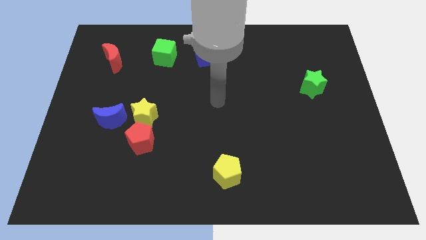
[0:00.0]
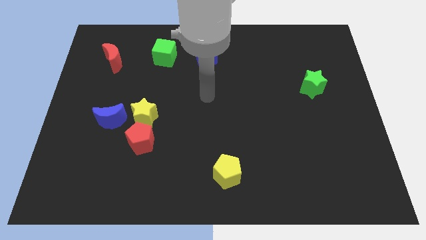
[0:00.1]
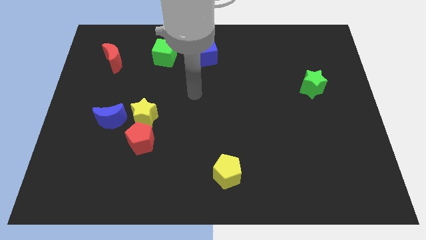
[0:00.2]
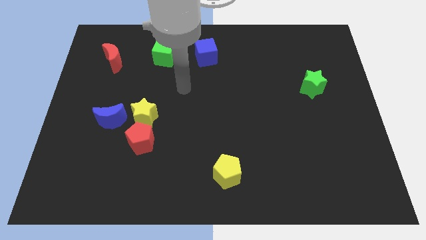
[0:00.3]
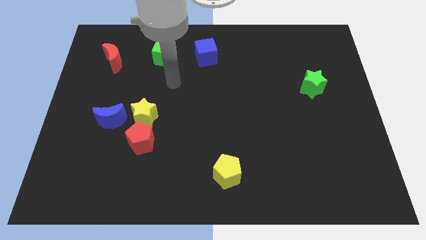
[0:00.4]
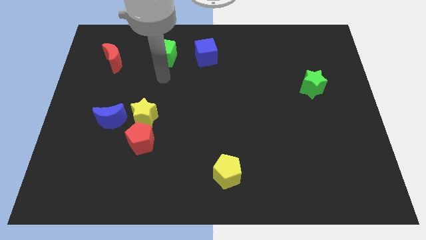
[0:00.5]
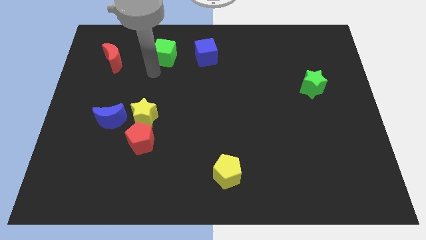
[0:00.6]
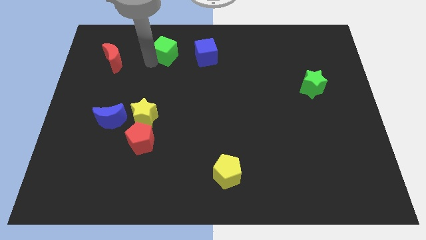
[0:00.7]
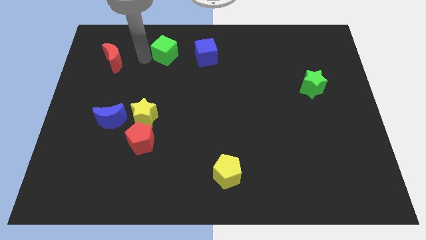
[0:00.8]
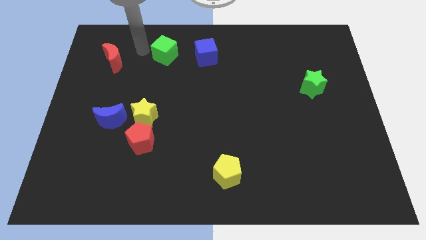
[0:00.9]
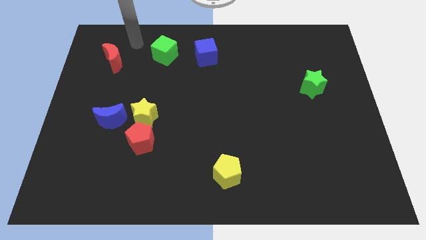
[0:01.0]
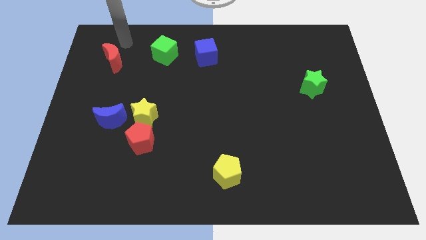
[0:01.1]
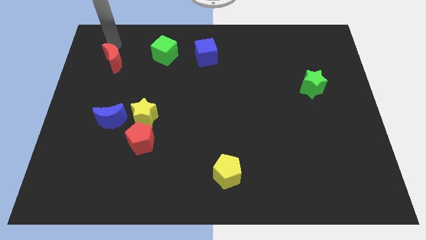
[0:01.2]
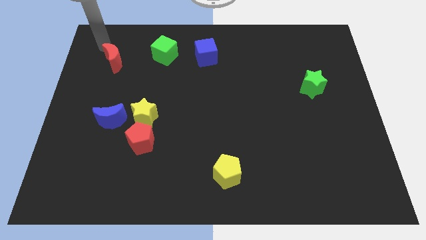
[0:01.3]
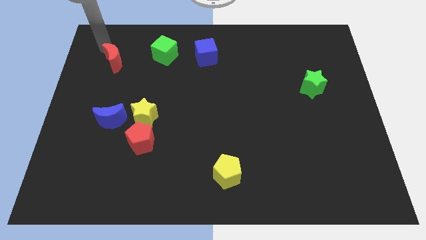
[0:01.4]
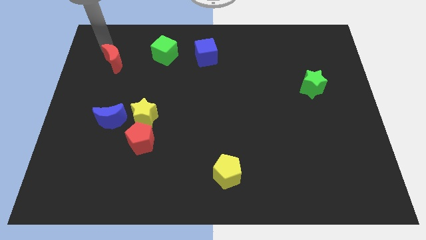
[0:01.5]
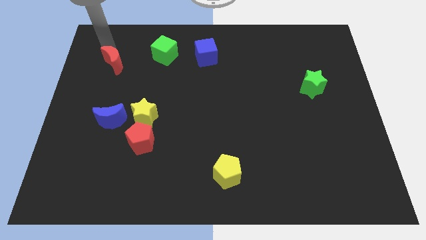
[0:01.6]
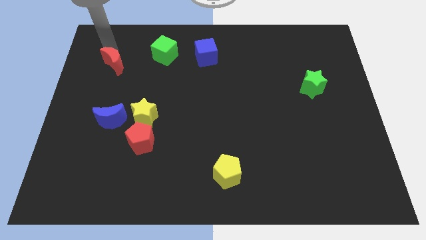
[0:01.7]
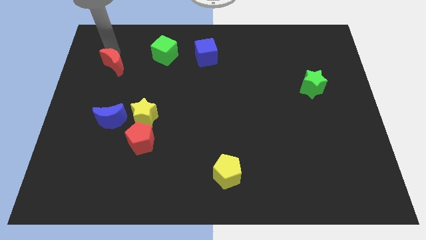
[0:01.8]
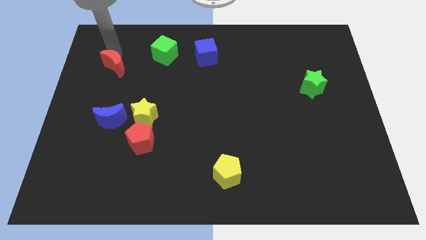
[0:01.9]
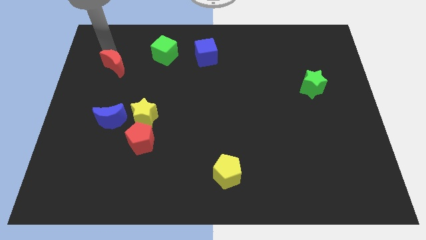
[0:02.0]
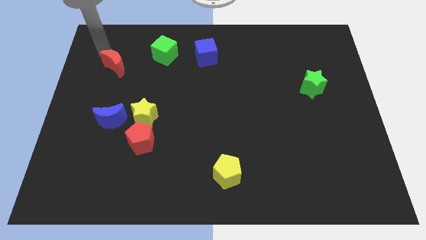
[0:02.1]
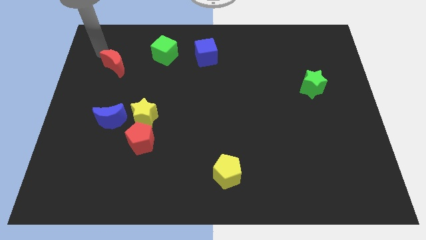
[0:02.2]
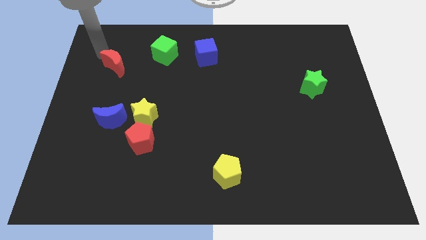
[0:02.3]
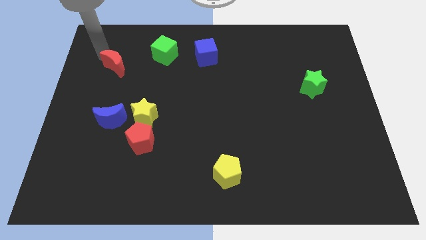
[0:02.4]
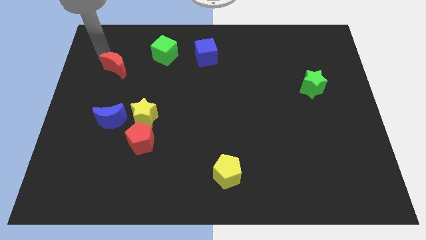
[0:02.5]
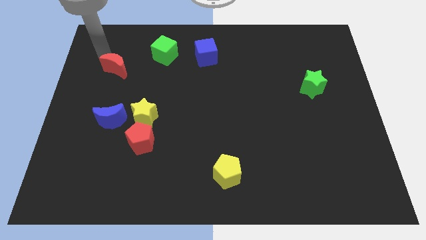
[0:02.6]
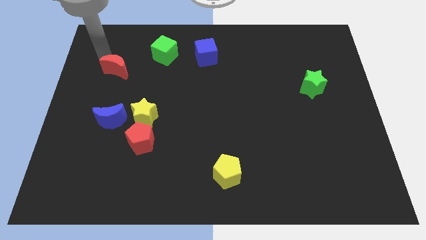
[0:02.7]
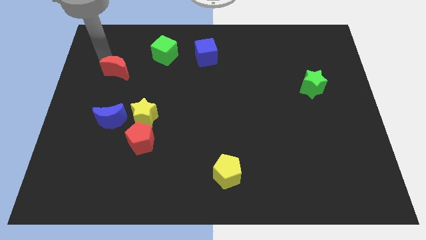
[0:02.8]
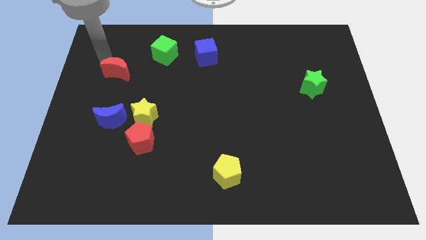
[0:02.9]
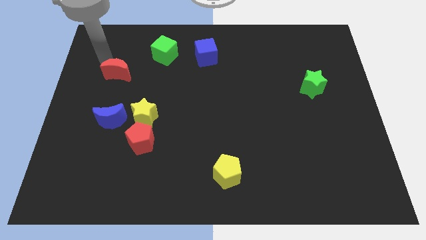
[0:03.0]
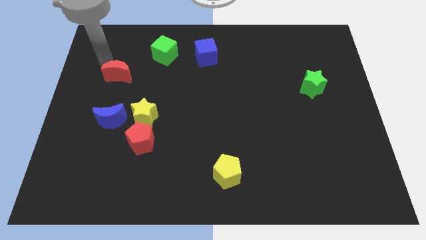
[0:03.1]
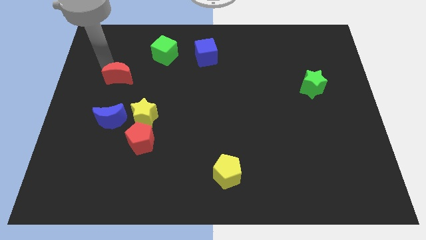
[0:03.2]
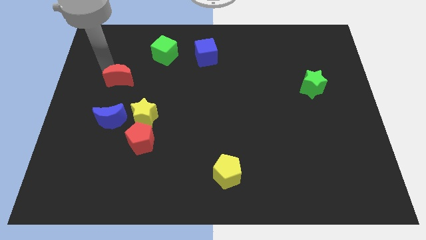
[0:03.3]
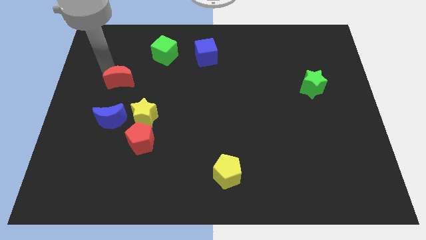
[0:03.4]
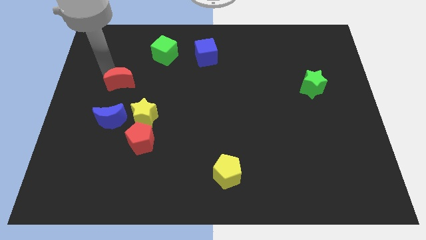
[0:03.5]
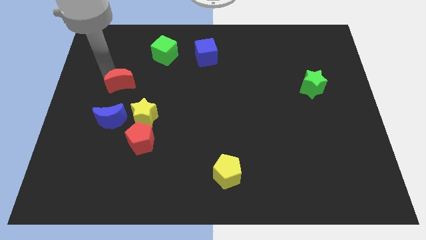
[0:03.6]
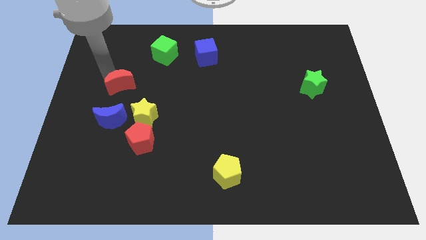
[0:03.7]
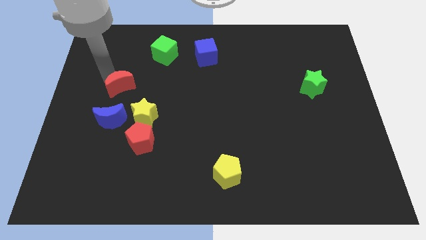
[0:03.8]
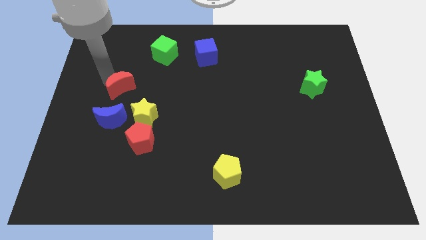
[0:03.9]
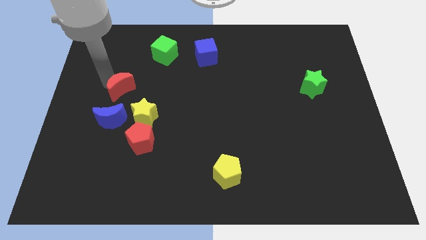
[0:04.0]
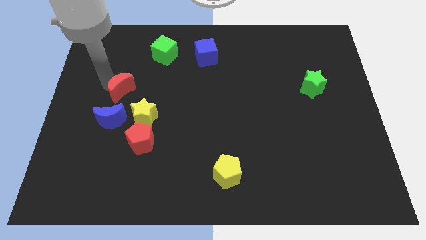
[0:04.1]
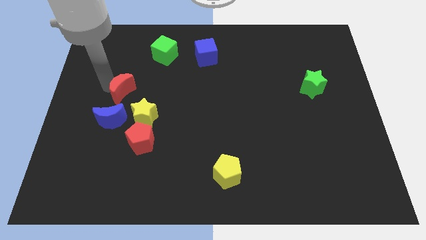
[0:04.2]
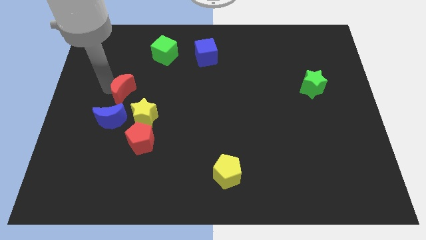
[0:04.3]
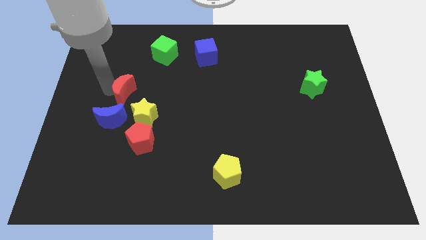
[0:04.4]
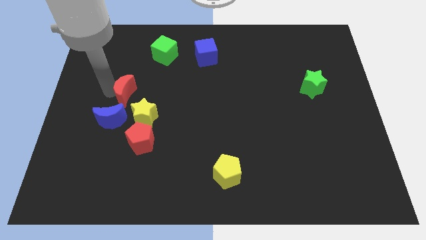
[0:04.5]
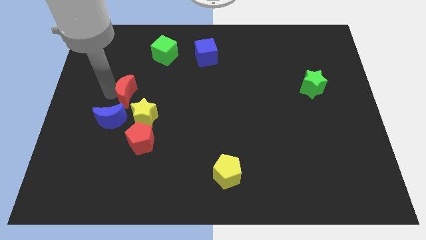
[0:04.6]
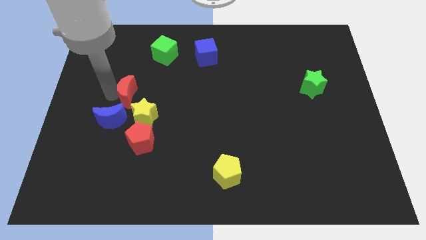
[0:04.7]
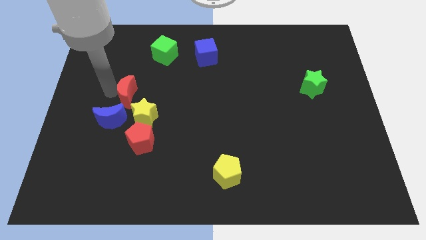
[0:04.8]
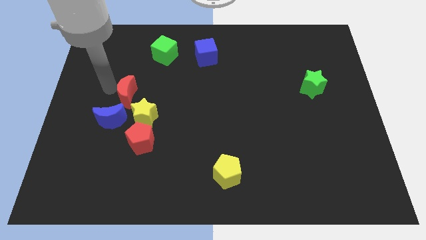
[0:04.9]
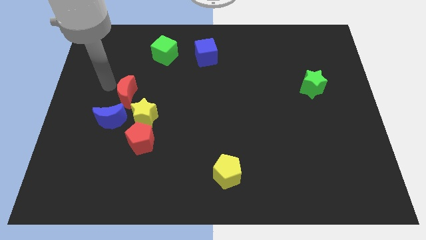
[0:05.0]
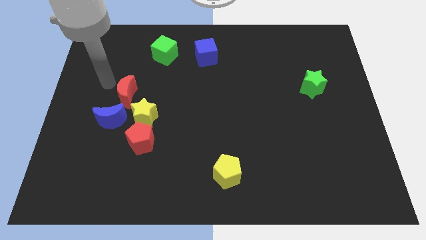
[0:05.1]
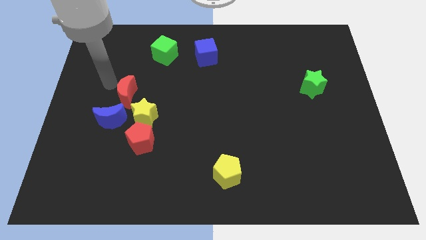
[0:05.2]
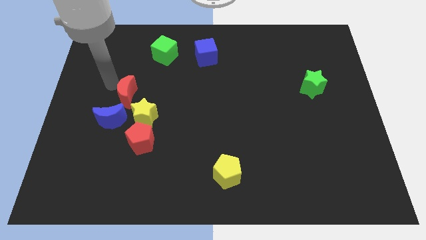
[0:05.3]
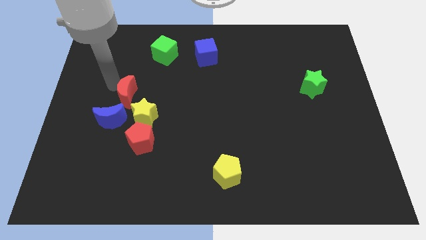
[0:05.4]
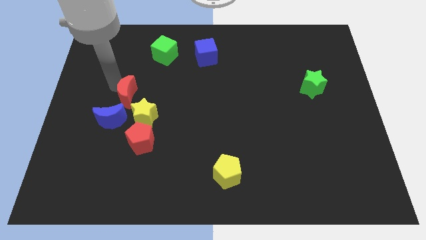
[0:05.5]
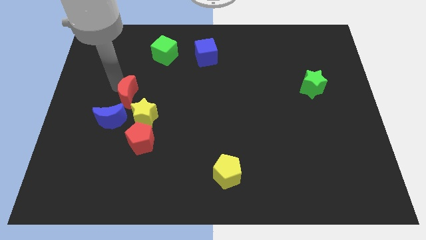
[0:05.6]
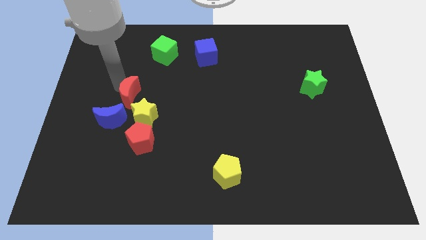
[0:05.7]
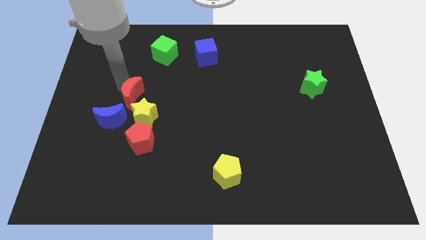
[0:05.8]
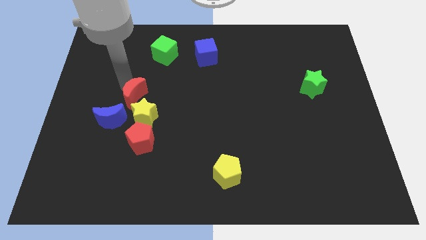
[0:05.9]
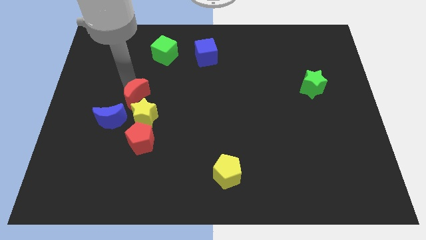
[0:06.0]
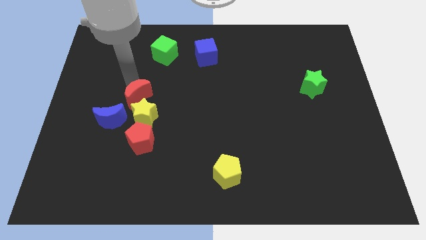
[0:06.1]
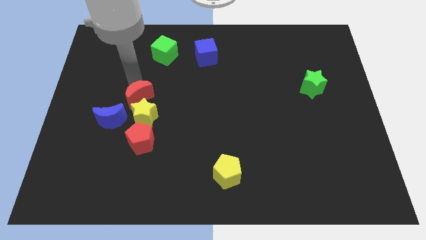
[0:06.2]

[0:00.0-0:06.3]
put the red moon to the yellow star
